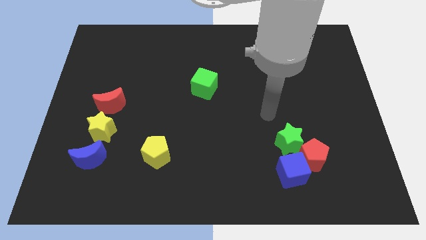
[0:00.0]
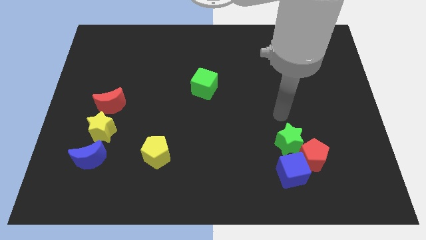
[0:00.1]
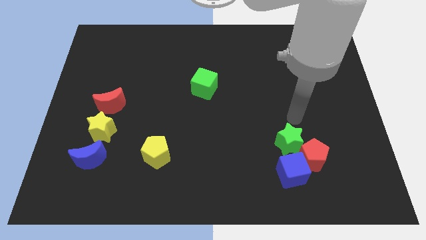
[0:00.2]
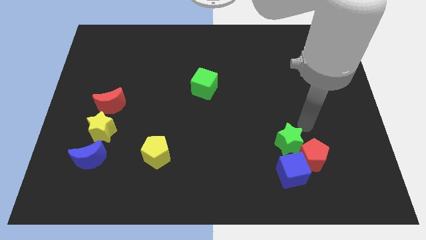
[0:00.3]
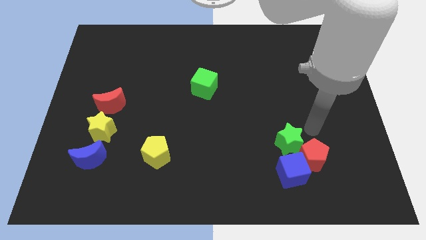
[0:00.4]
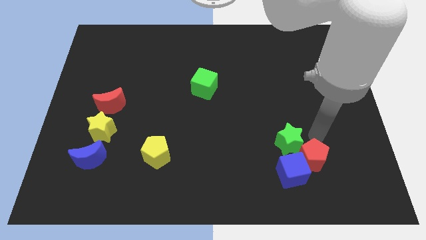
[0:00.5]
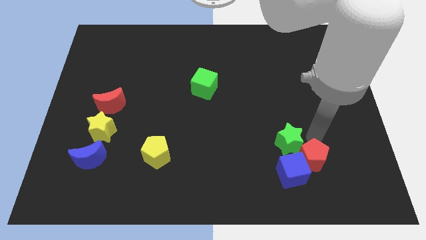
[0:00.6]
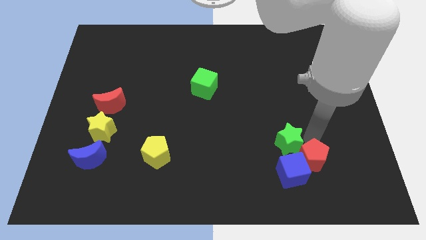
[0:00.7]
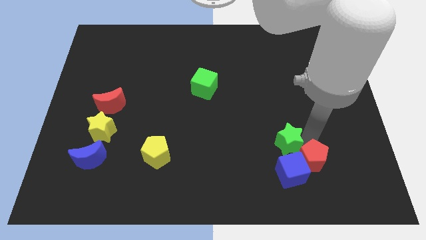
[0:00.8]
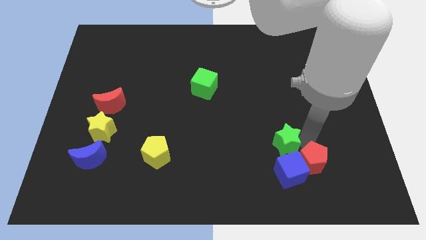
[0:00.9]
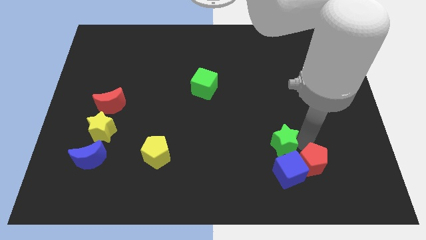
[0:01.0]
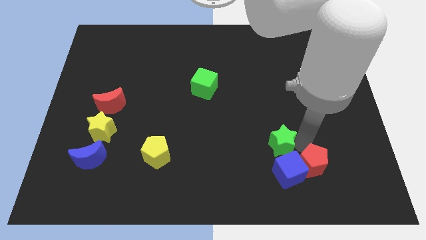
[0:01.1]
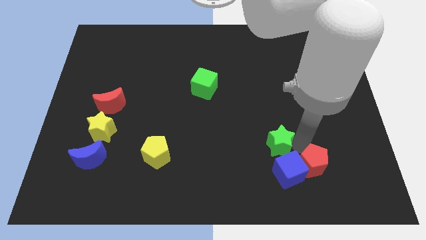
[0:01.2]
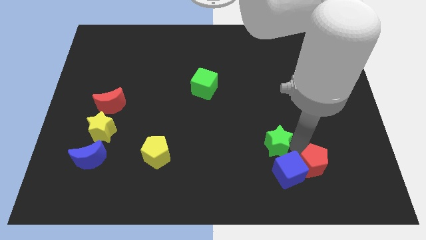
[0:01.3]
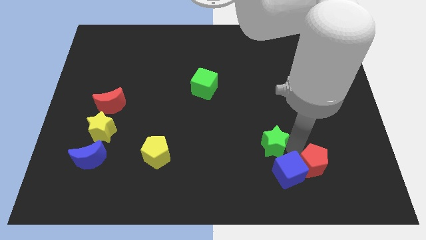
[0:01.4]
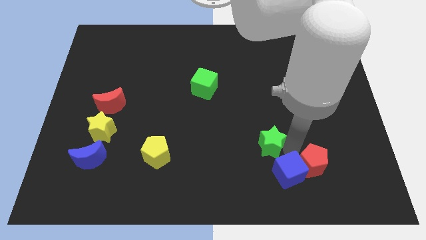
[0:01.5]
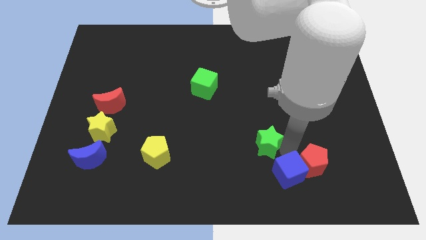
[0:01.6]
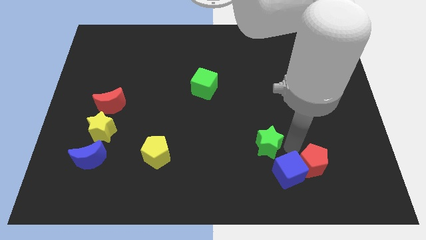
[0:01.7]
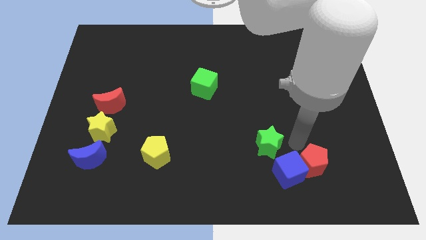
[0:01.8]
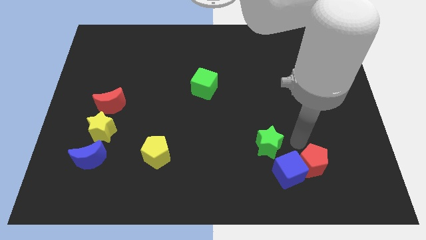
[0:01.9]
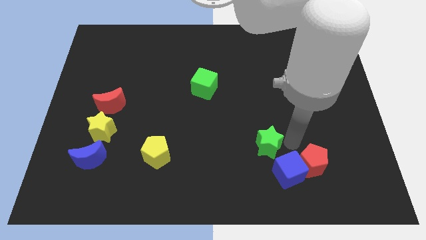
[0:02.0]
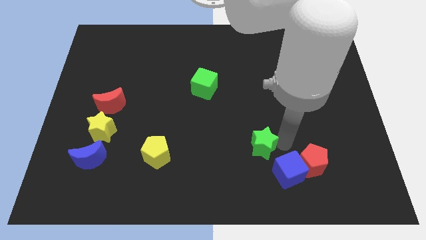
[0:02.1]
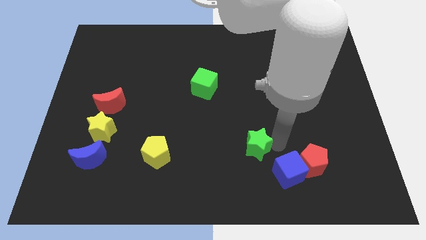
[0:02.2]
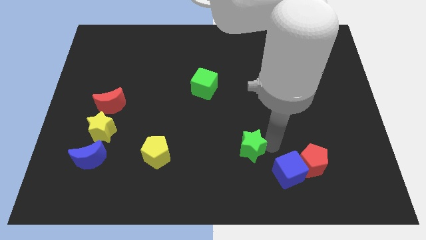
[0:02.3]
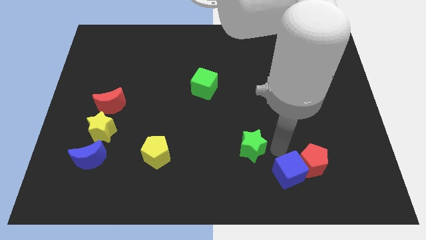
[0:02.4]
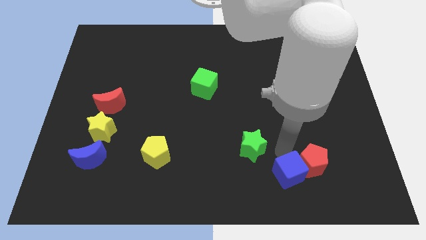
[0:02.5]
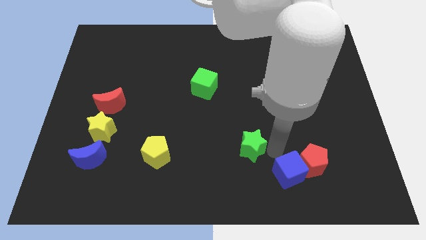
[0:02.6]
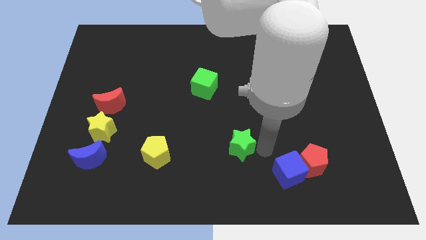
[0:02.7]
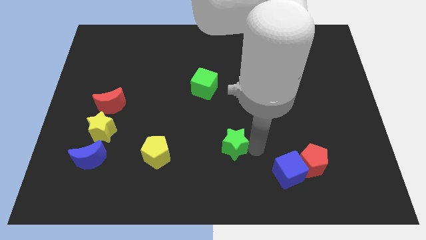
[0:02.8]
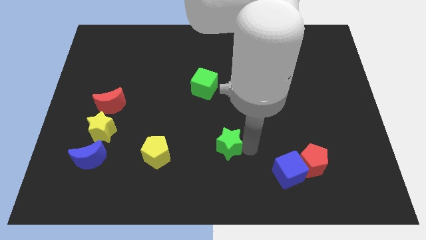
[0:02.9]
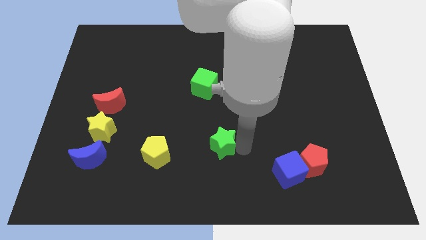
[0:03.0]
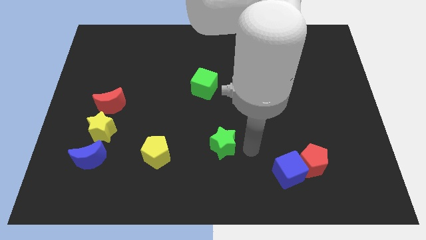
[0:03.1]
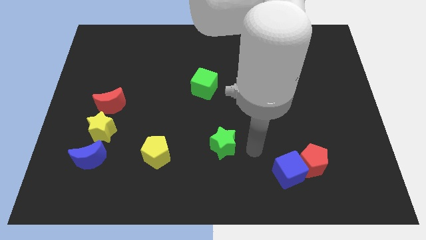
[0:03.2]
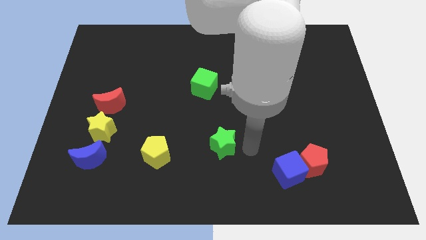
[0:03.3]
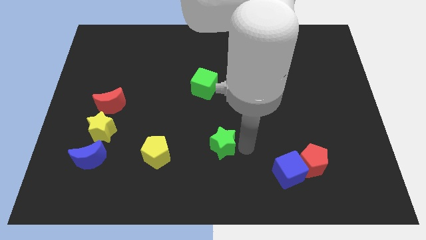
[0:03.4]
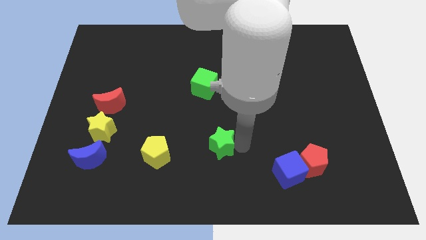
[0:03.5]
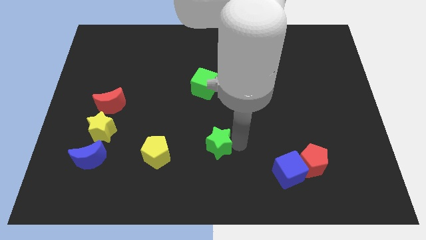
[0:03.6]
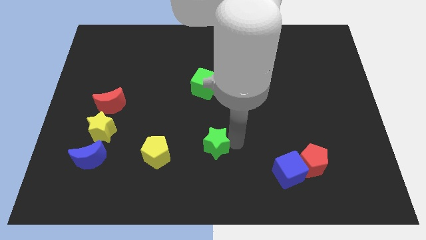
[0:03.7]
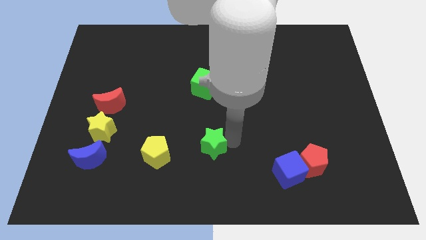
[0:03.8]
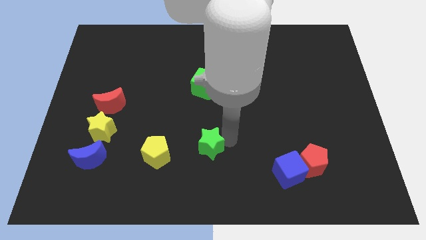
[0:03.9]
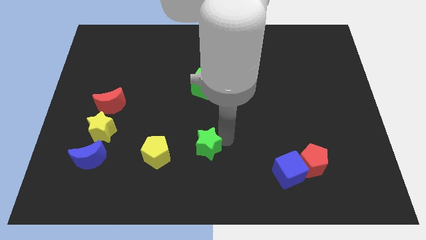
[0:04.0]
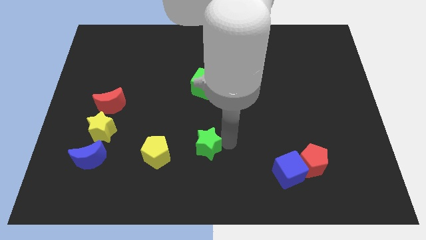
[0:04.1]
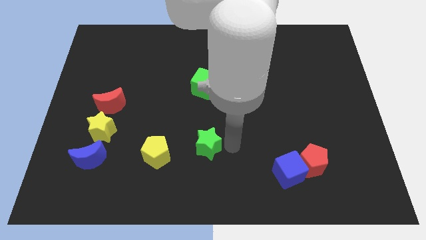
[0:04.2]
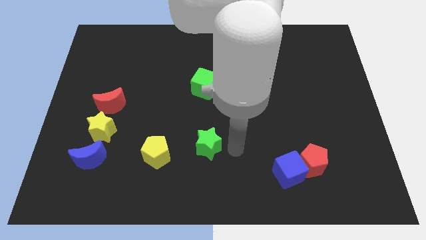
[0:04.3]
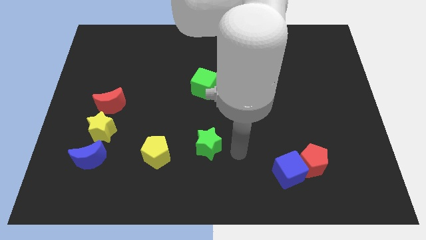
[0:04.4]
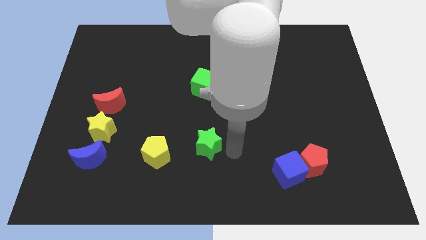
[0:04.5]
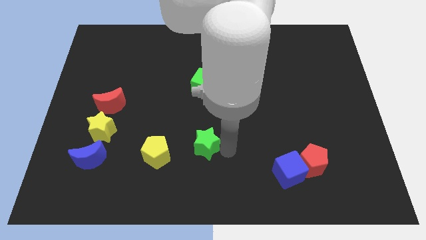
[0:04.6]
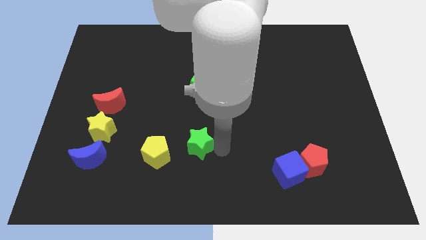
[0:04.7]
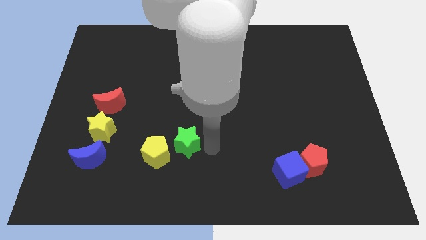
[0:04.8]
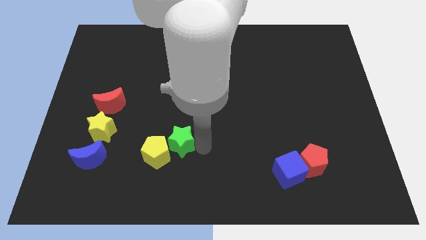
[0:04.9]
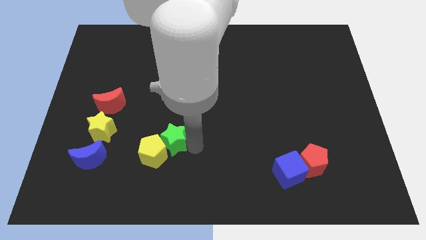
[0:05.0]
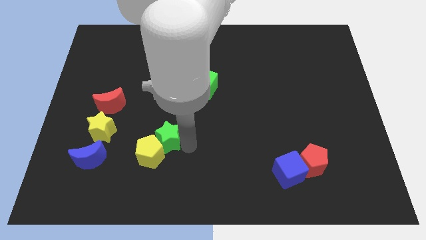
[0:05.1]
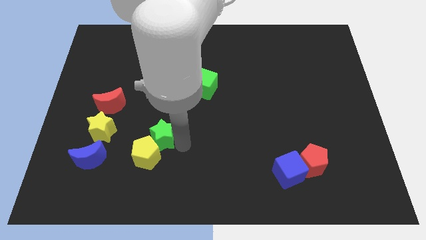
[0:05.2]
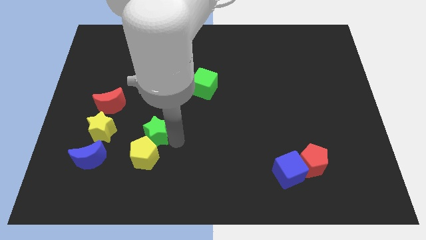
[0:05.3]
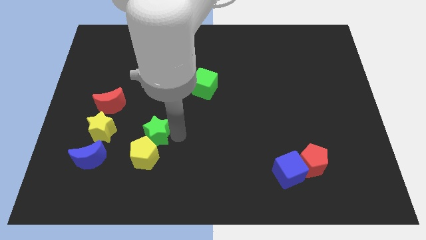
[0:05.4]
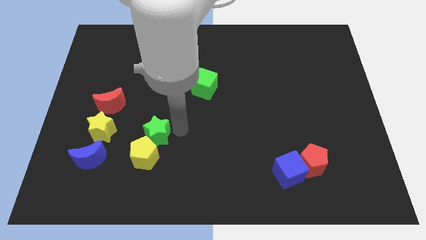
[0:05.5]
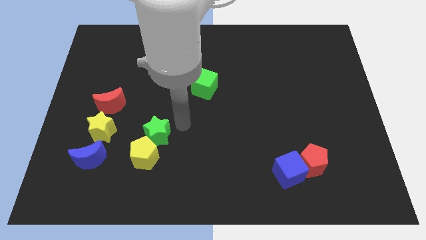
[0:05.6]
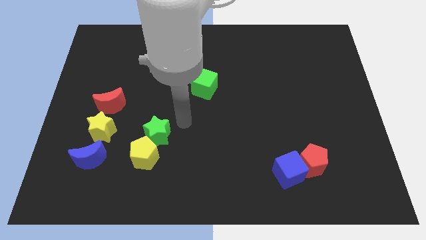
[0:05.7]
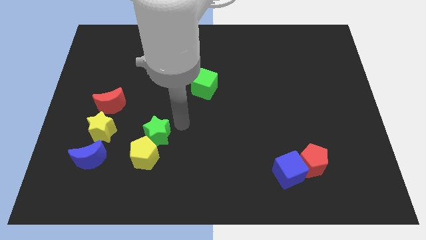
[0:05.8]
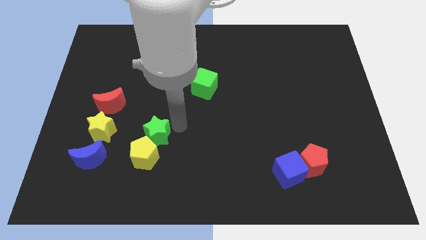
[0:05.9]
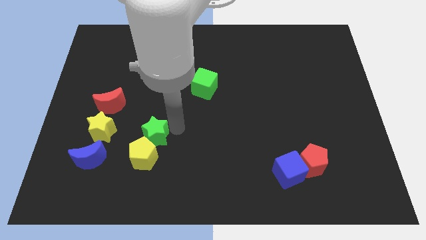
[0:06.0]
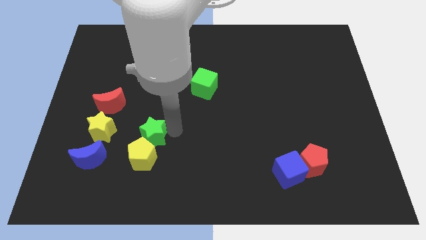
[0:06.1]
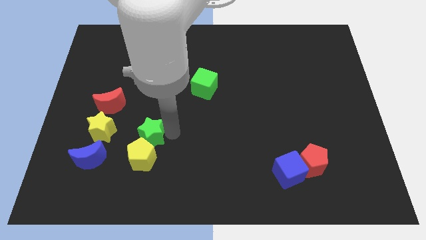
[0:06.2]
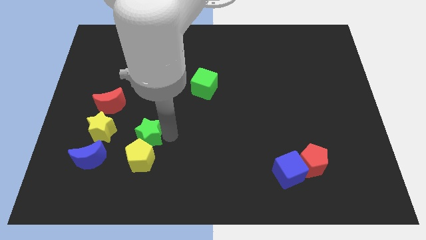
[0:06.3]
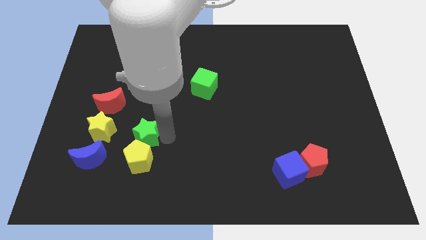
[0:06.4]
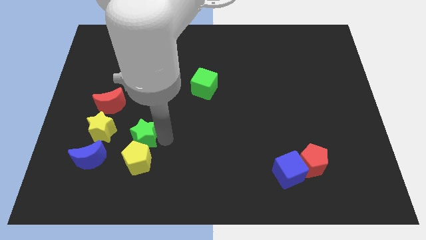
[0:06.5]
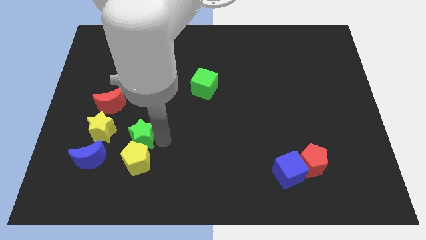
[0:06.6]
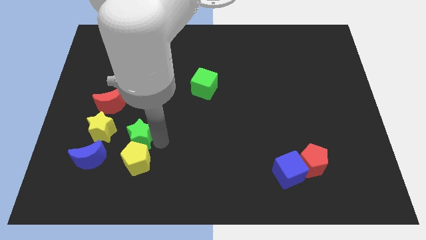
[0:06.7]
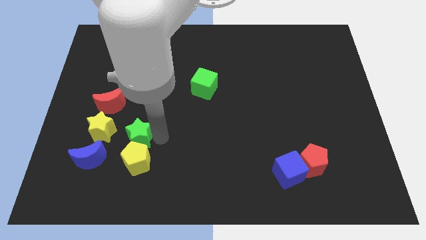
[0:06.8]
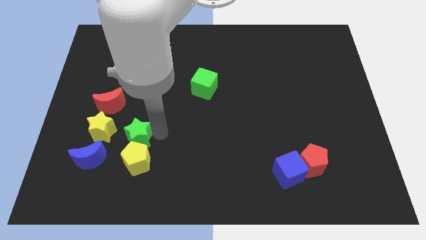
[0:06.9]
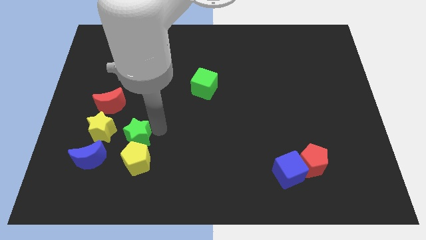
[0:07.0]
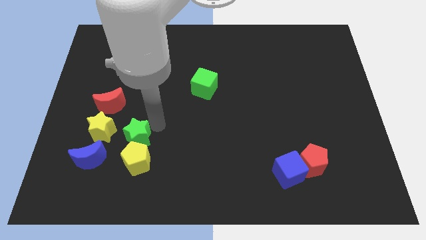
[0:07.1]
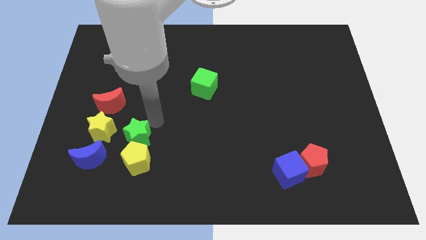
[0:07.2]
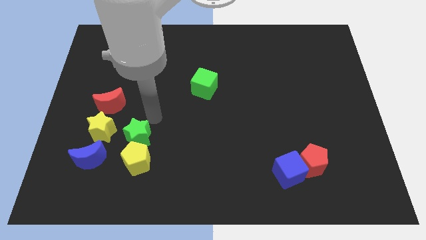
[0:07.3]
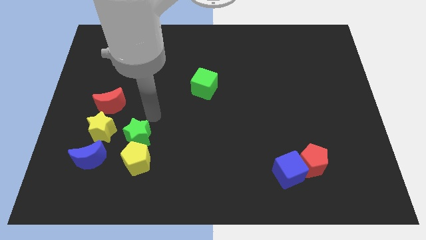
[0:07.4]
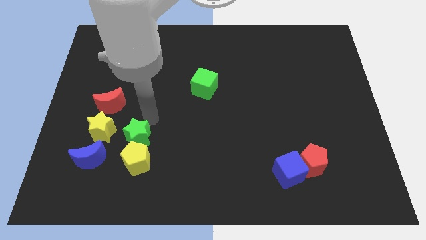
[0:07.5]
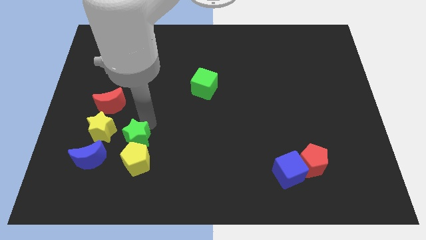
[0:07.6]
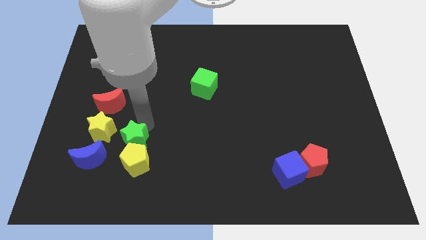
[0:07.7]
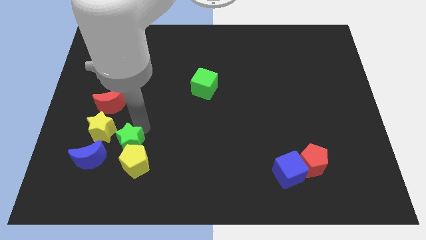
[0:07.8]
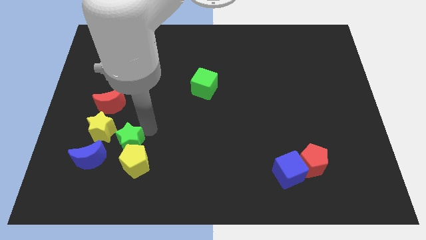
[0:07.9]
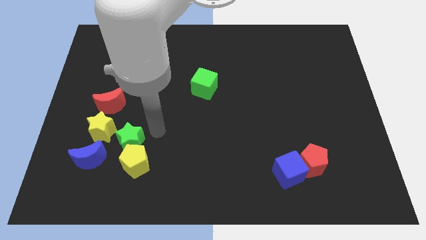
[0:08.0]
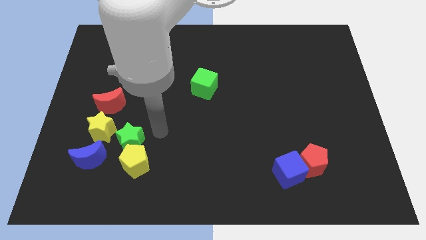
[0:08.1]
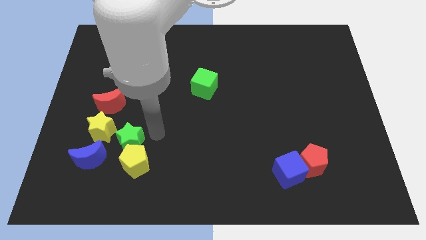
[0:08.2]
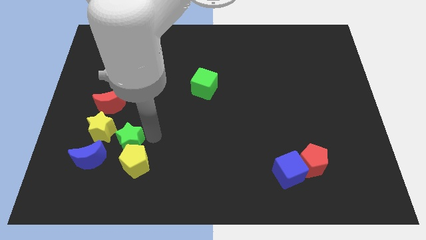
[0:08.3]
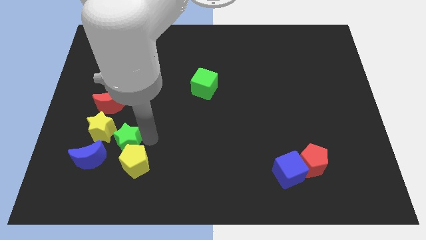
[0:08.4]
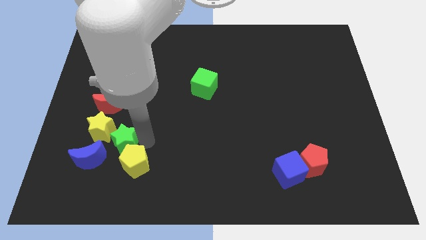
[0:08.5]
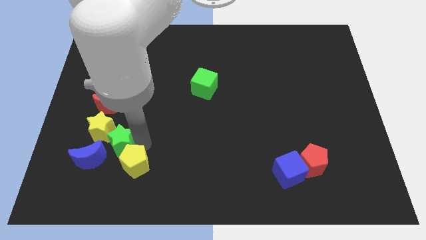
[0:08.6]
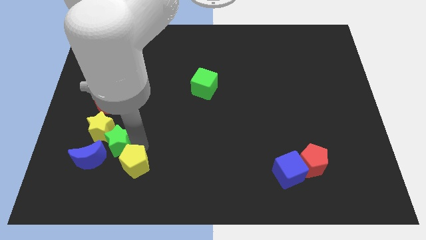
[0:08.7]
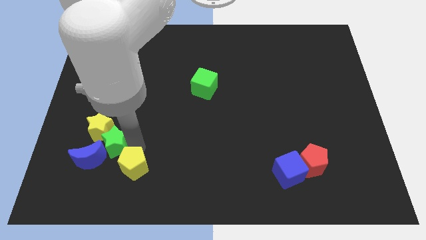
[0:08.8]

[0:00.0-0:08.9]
push the green star next to the blue moon
